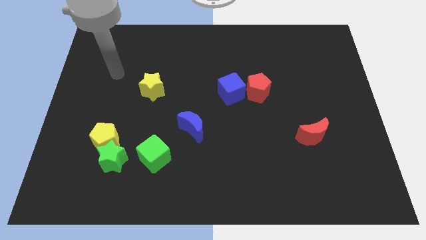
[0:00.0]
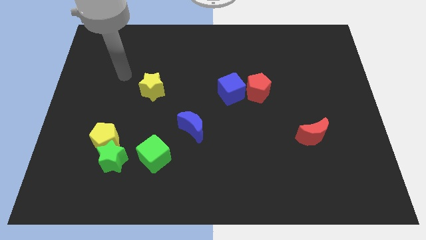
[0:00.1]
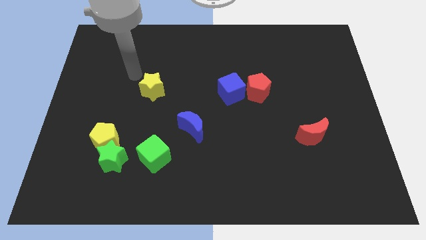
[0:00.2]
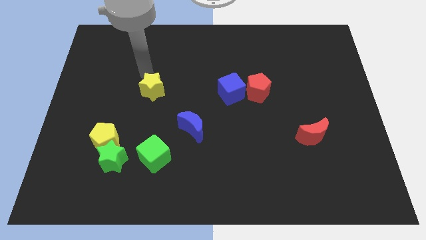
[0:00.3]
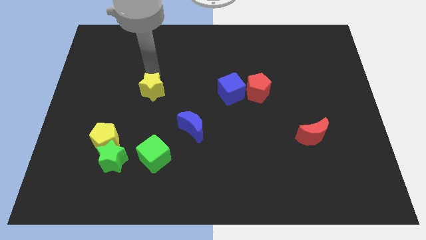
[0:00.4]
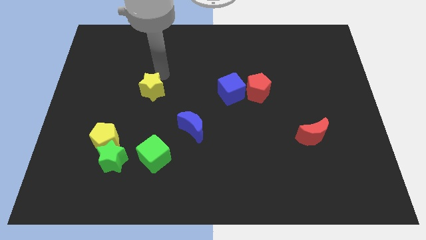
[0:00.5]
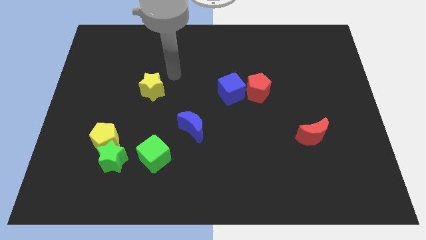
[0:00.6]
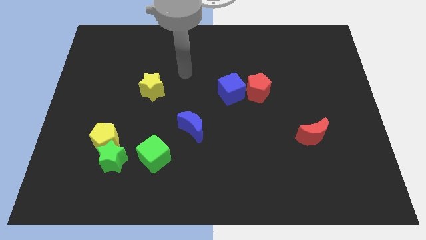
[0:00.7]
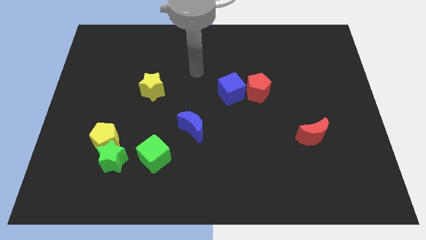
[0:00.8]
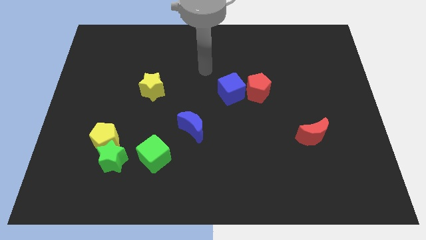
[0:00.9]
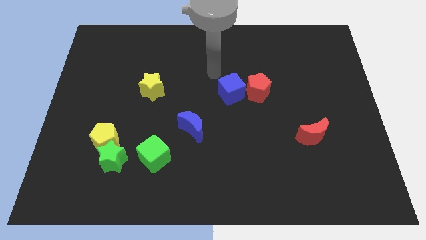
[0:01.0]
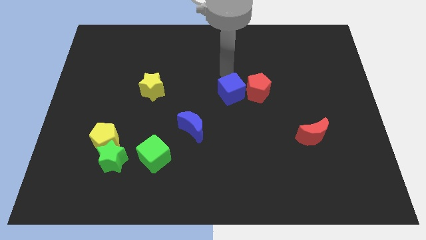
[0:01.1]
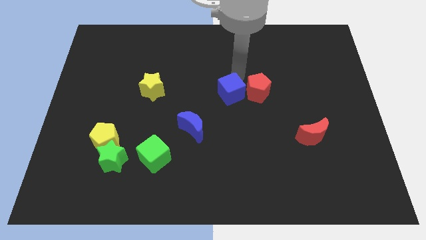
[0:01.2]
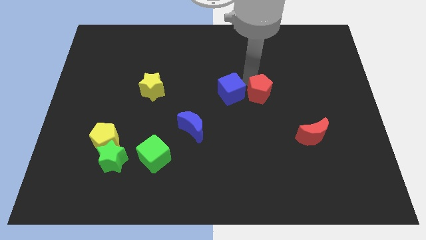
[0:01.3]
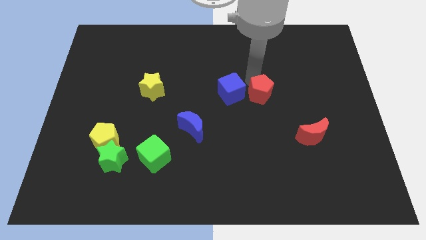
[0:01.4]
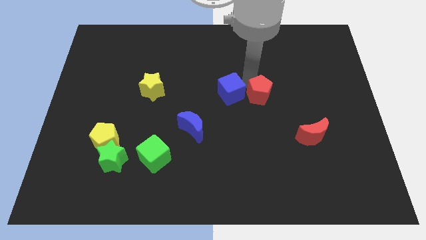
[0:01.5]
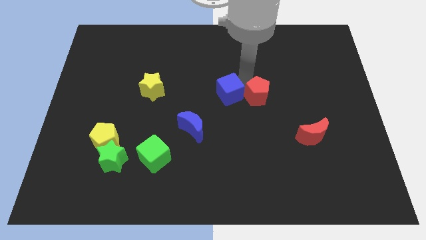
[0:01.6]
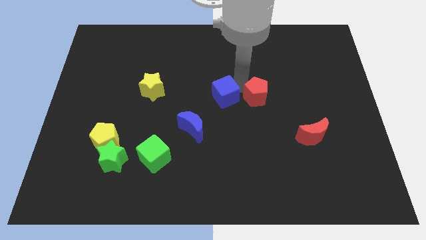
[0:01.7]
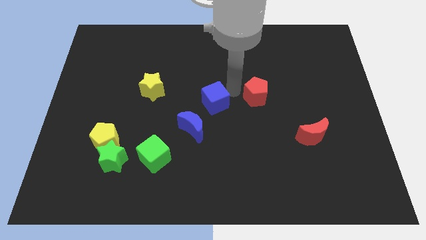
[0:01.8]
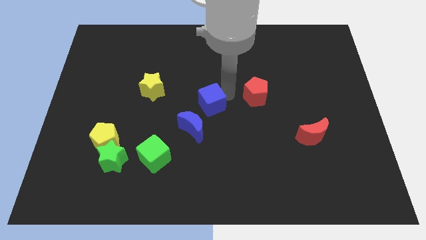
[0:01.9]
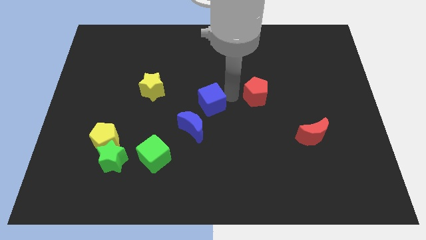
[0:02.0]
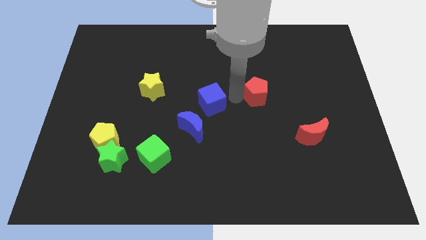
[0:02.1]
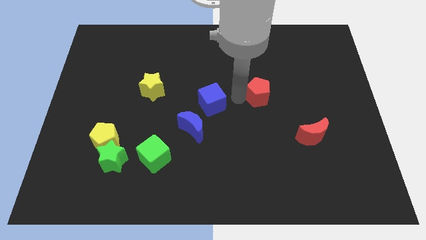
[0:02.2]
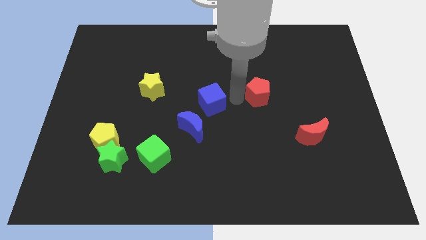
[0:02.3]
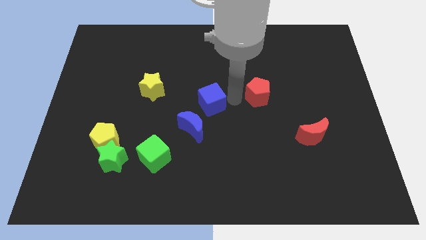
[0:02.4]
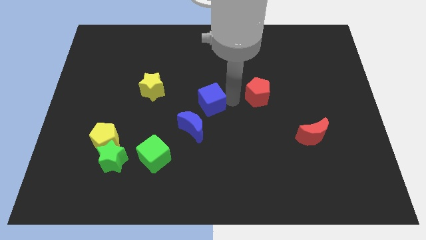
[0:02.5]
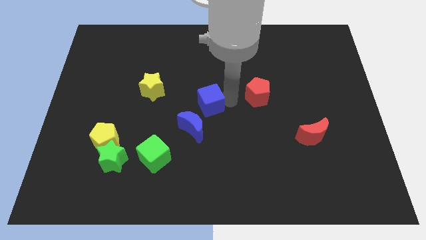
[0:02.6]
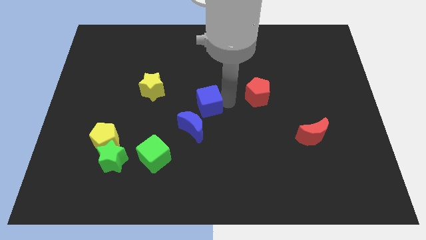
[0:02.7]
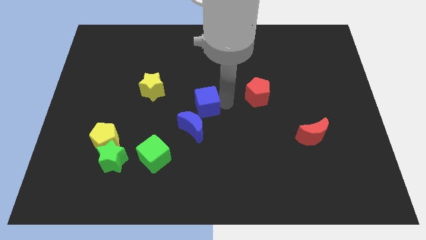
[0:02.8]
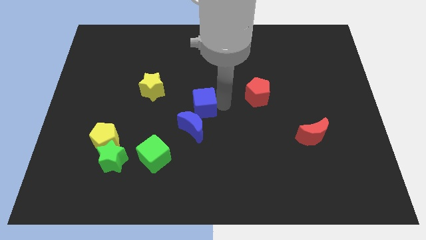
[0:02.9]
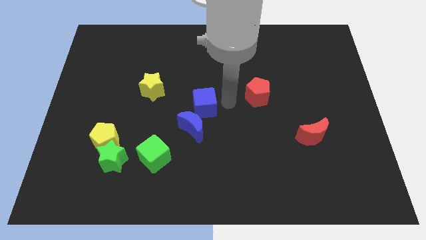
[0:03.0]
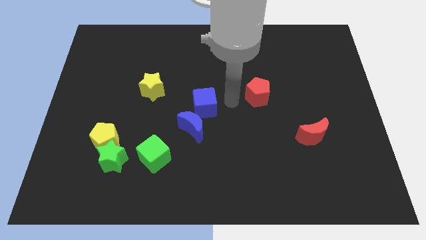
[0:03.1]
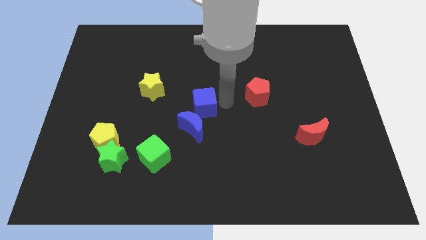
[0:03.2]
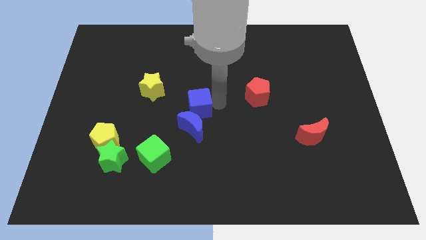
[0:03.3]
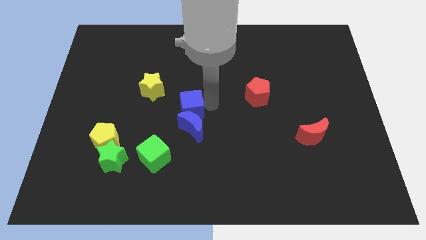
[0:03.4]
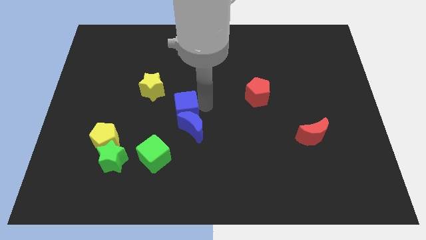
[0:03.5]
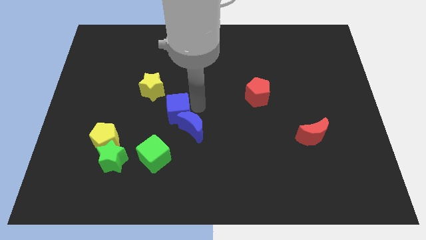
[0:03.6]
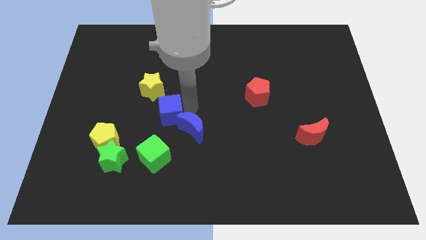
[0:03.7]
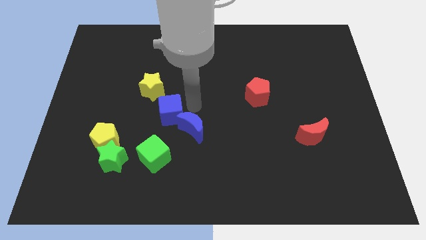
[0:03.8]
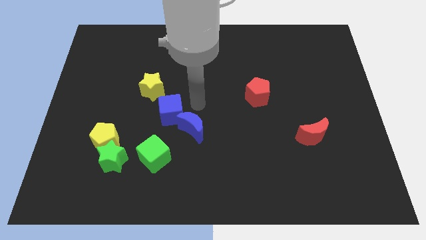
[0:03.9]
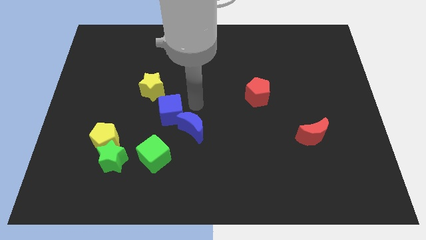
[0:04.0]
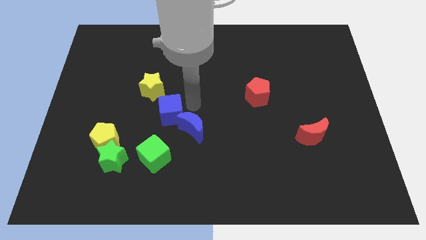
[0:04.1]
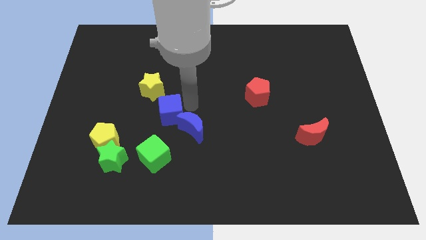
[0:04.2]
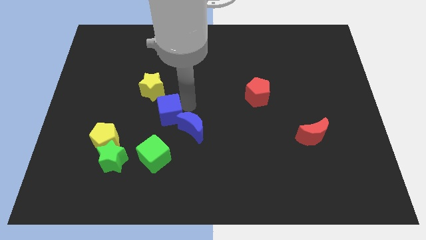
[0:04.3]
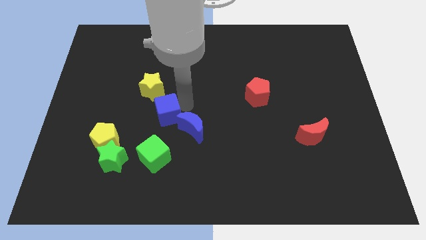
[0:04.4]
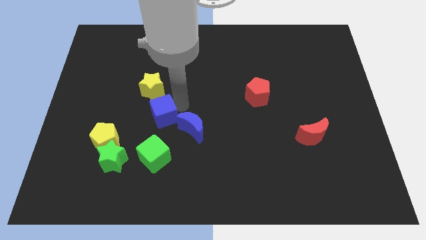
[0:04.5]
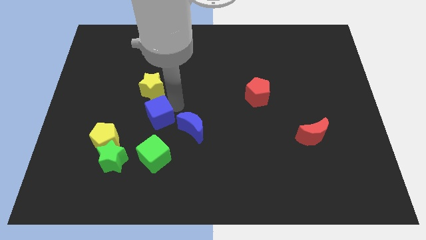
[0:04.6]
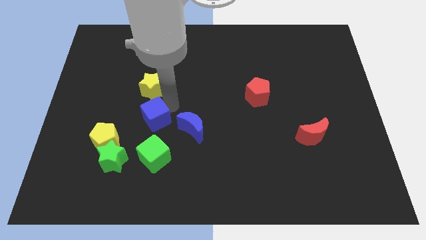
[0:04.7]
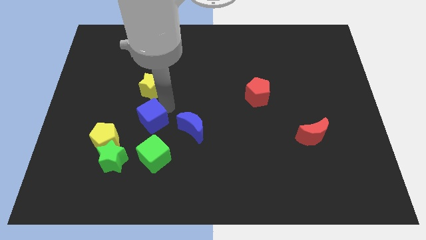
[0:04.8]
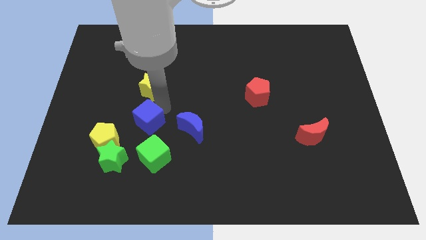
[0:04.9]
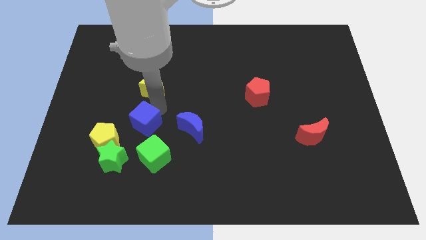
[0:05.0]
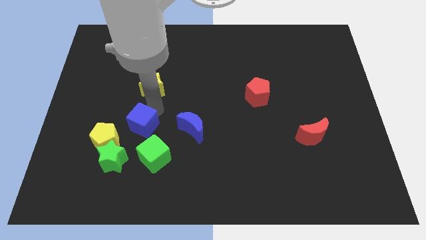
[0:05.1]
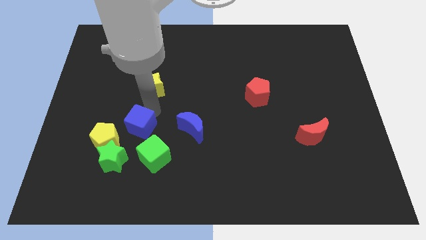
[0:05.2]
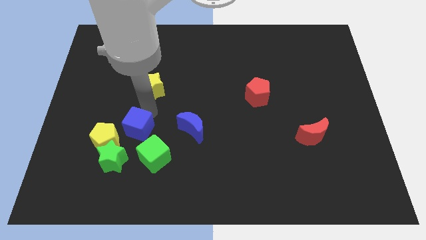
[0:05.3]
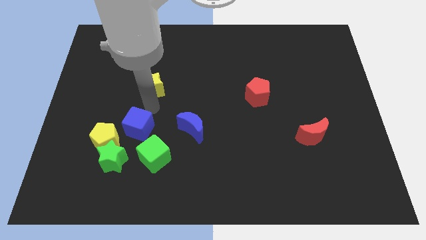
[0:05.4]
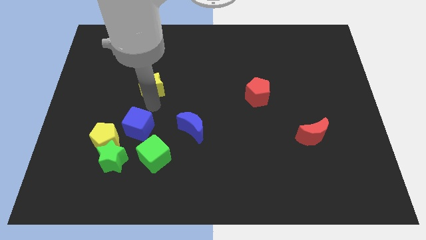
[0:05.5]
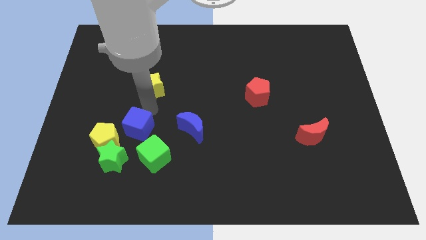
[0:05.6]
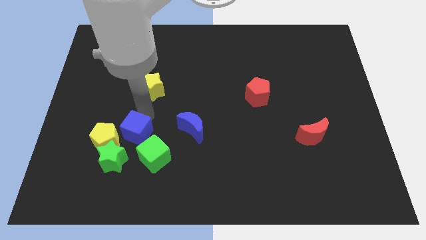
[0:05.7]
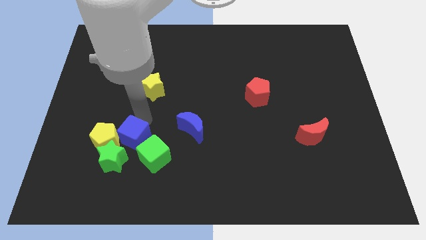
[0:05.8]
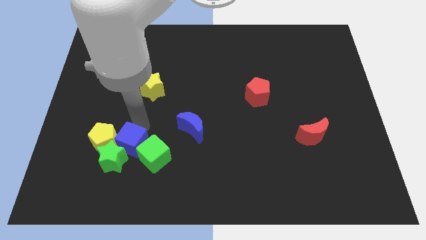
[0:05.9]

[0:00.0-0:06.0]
move the blue cube close to the green star

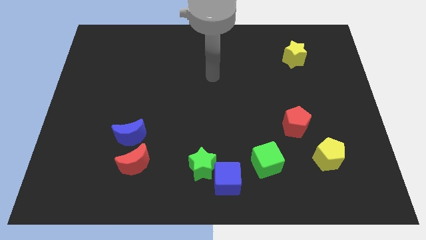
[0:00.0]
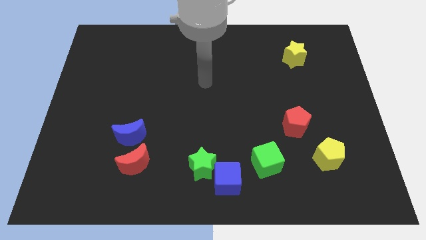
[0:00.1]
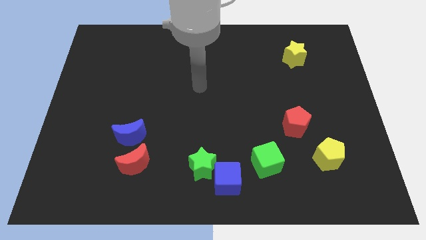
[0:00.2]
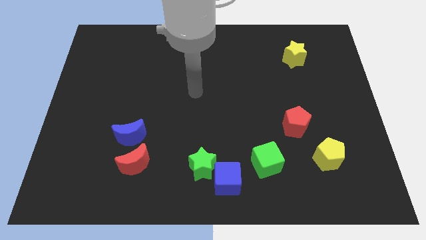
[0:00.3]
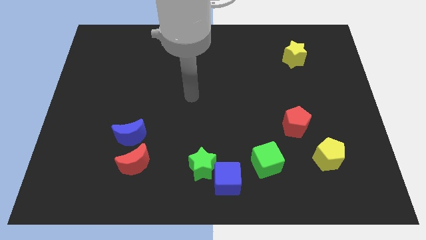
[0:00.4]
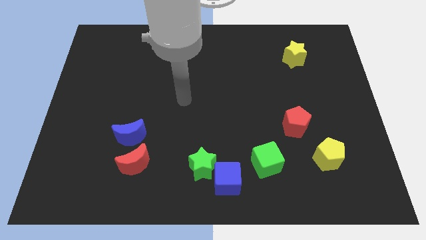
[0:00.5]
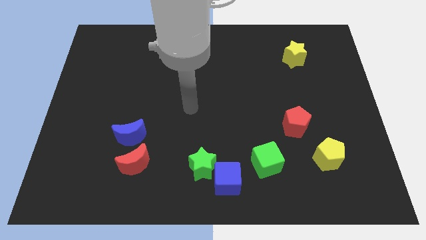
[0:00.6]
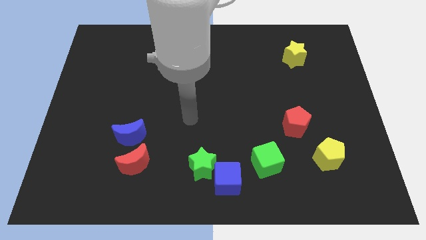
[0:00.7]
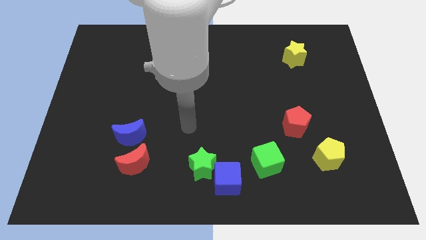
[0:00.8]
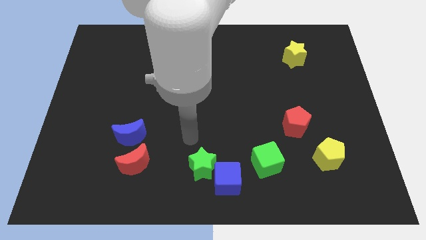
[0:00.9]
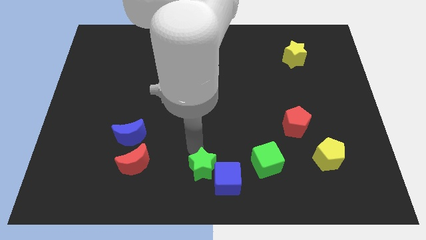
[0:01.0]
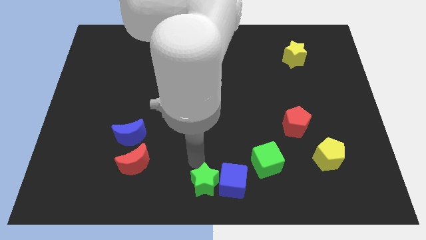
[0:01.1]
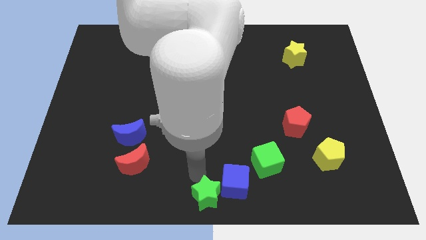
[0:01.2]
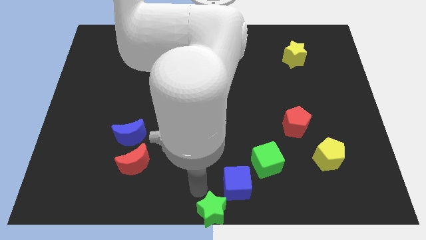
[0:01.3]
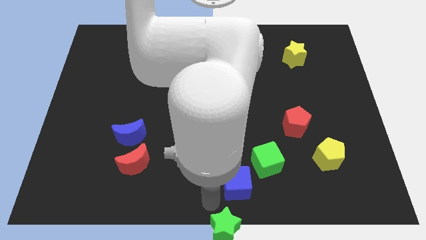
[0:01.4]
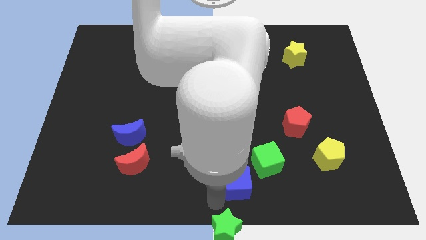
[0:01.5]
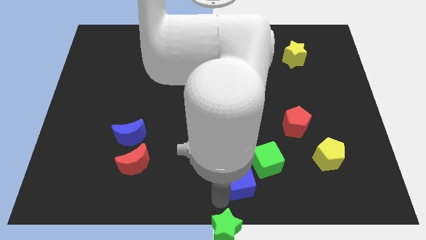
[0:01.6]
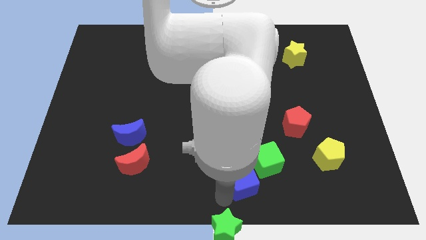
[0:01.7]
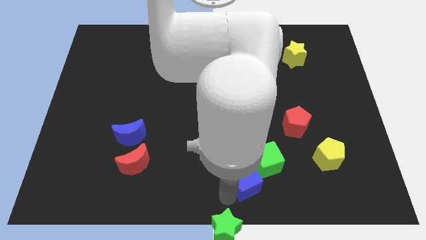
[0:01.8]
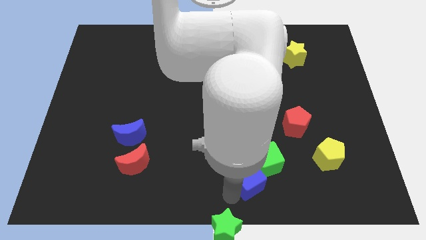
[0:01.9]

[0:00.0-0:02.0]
put the blue cube close to the green cube

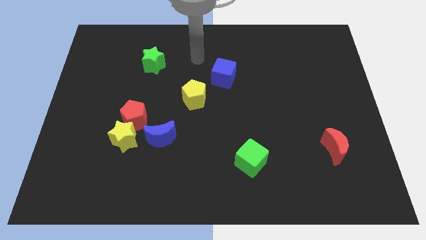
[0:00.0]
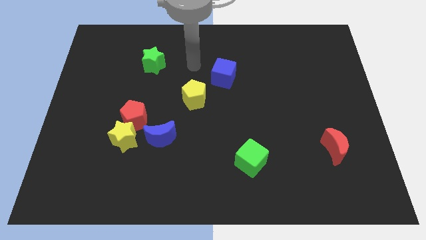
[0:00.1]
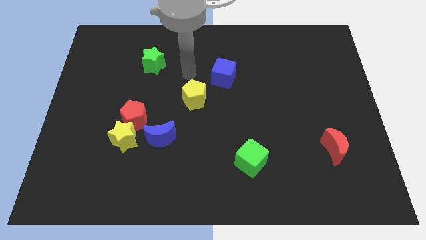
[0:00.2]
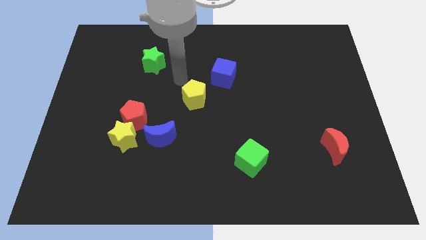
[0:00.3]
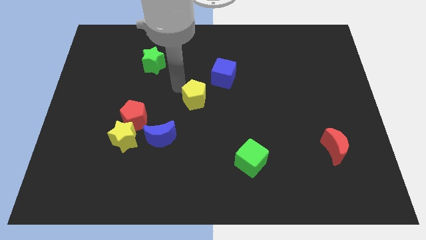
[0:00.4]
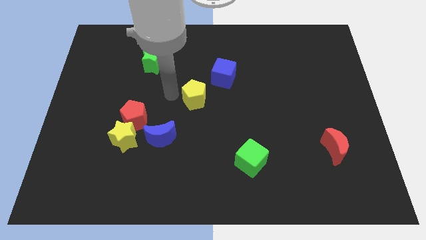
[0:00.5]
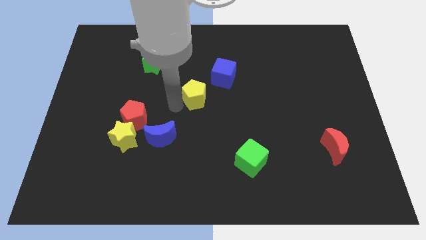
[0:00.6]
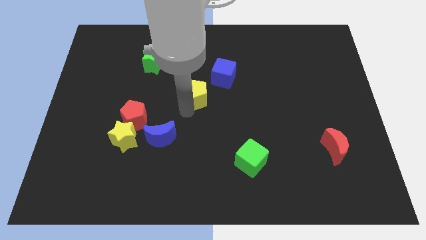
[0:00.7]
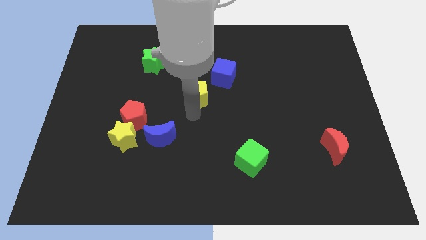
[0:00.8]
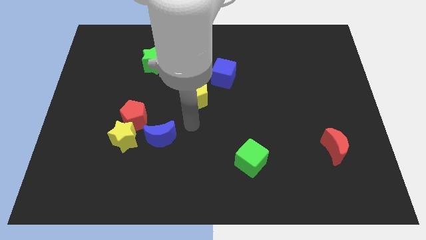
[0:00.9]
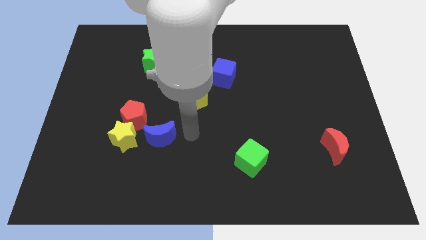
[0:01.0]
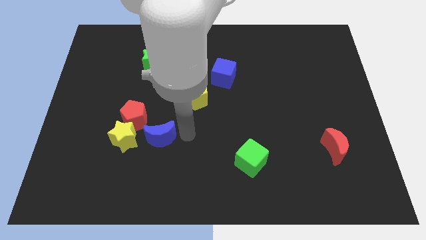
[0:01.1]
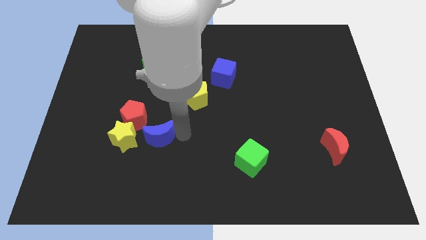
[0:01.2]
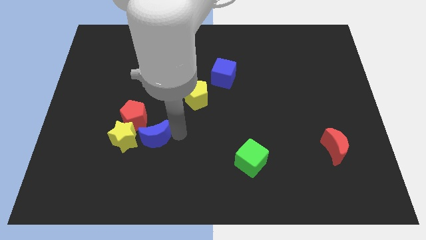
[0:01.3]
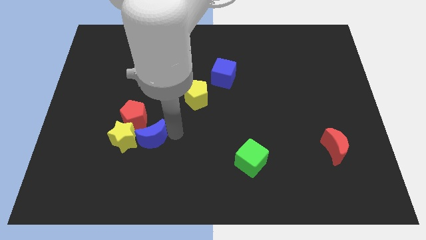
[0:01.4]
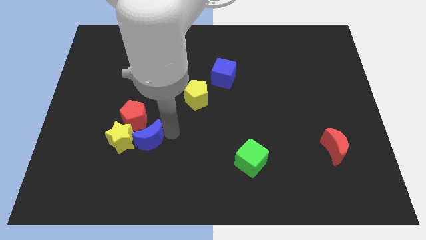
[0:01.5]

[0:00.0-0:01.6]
slide the blue moon close to the yellow star
